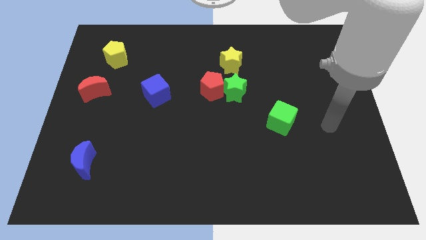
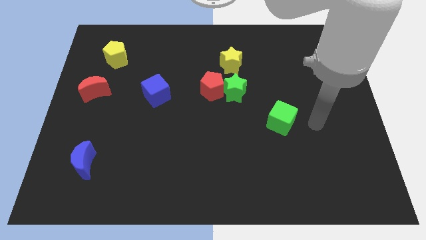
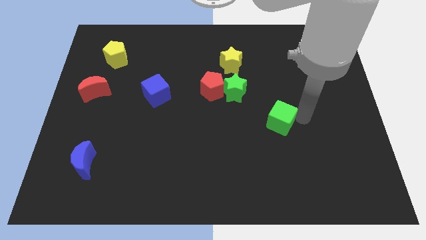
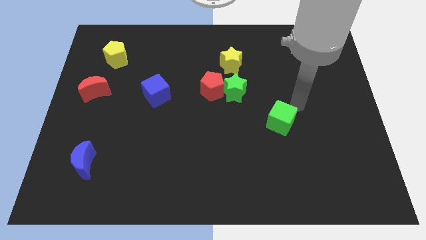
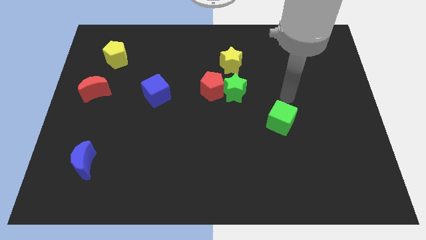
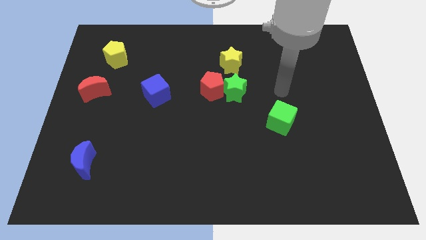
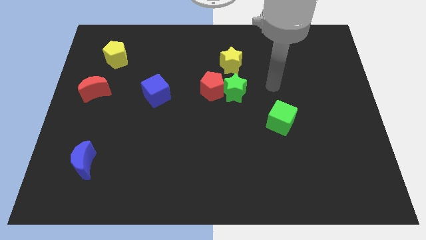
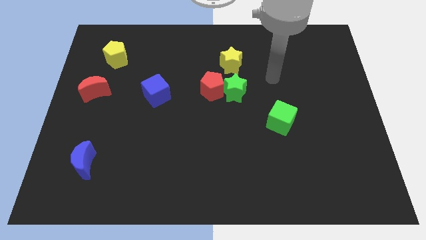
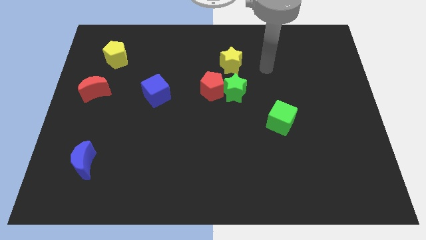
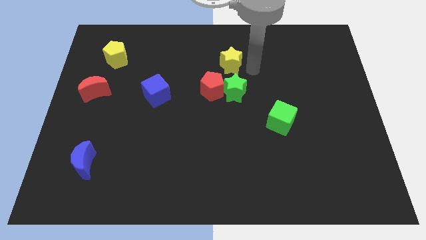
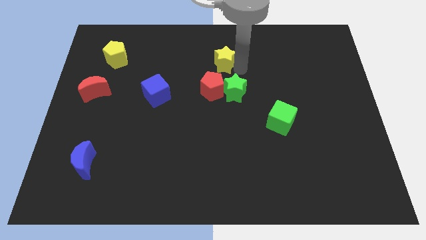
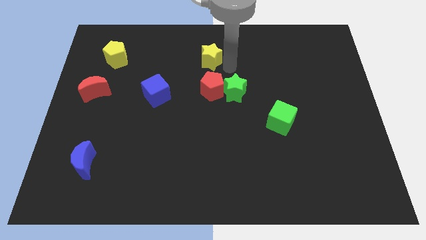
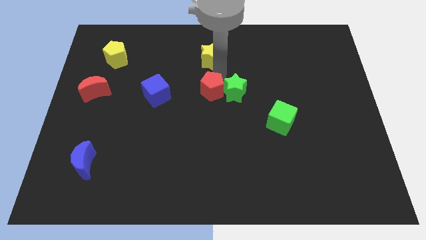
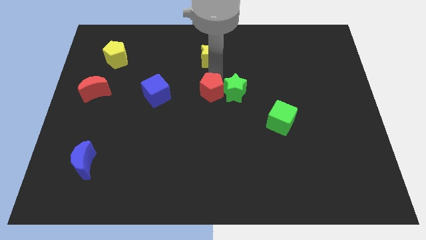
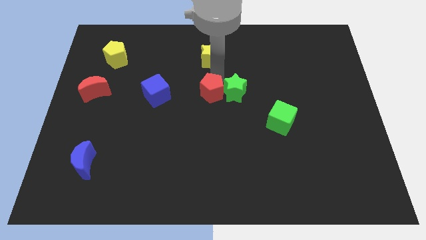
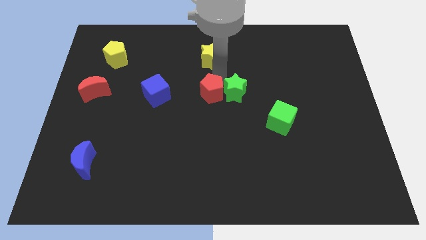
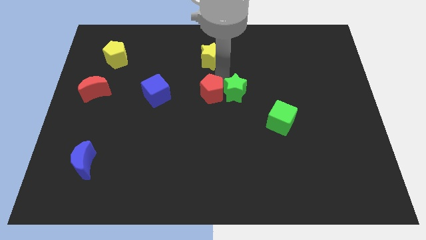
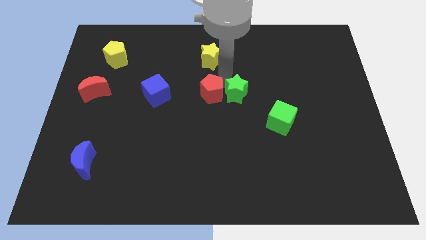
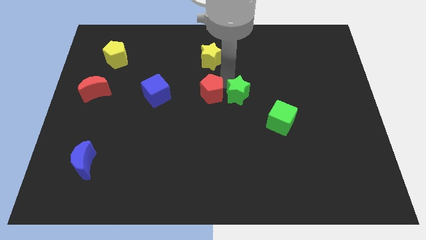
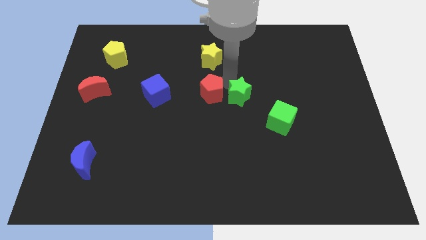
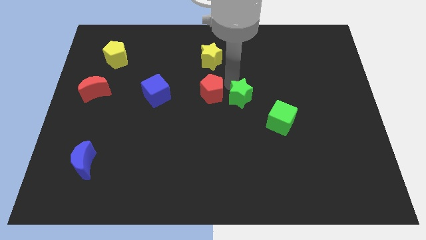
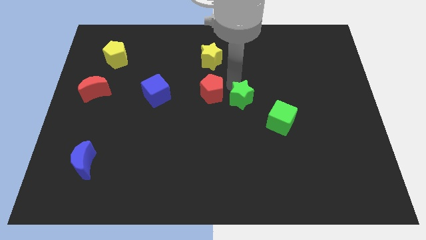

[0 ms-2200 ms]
separate the green star from the red pentagon and yellow star

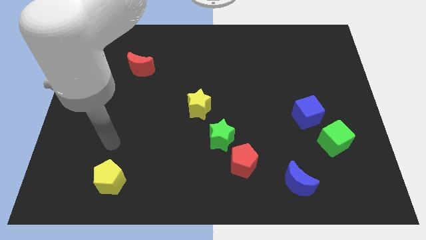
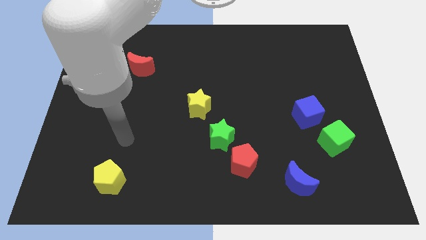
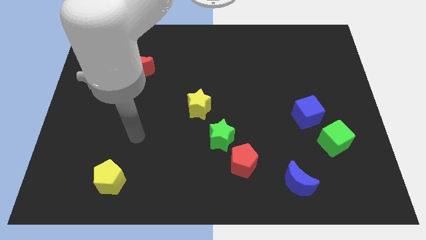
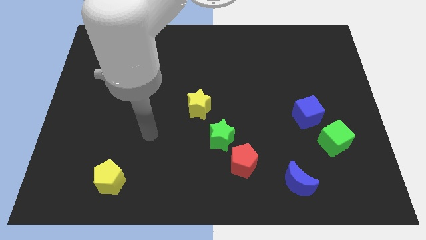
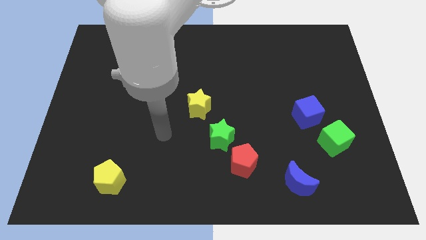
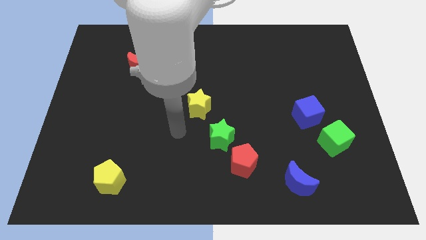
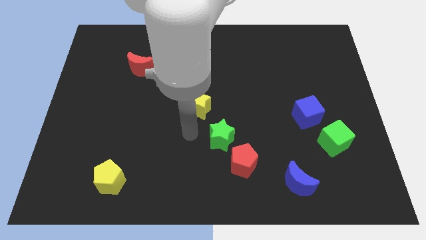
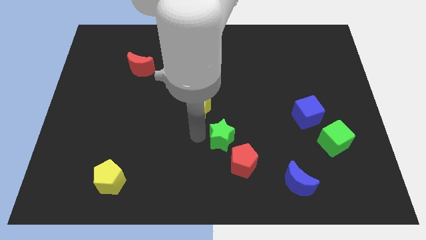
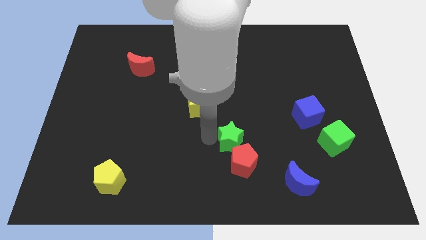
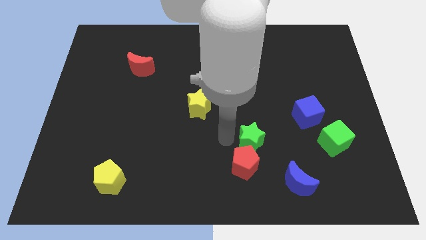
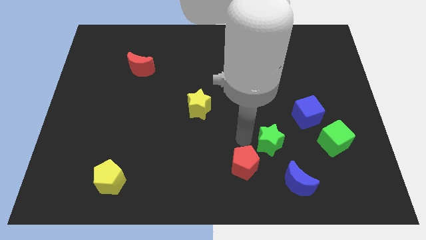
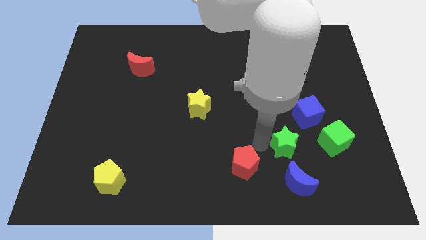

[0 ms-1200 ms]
separate the red pentagon from the green star

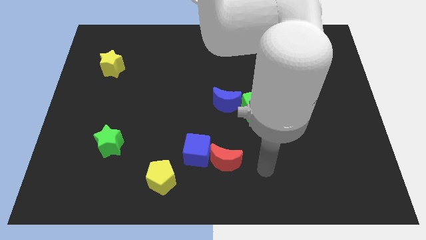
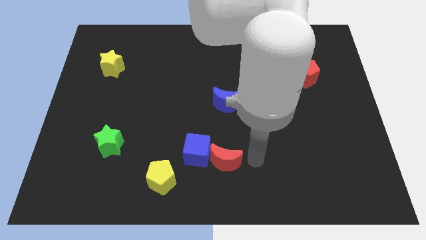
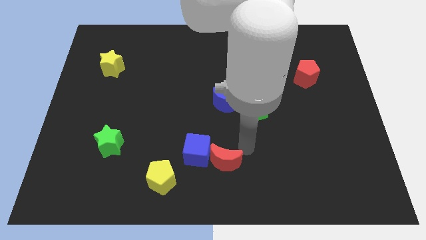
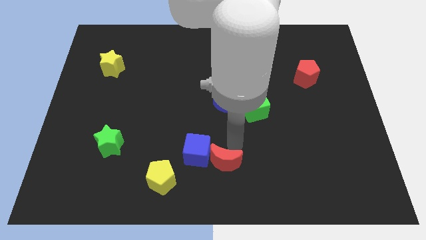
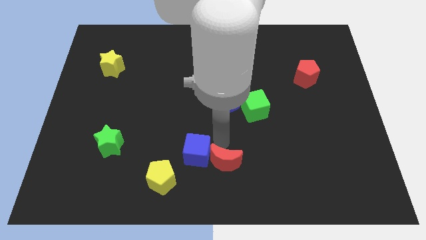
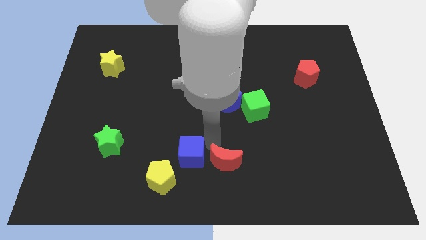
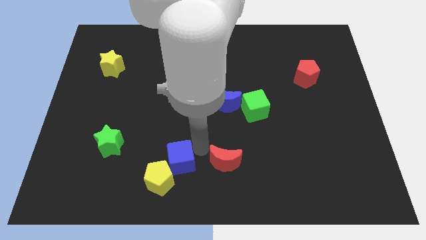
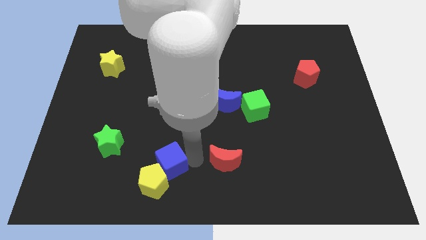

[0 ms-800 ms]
move the red moon away from the blue cube

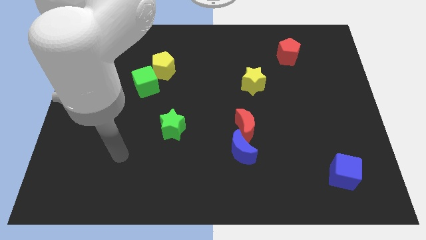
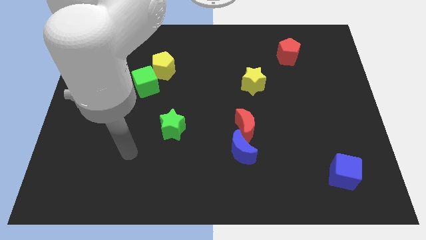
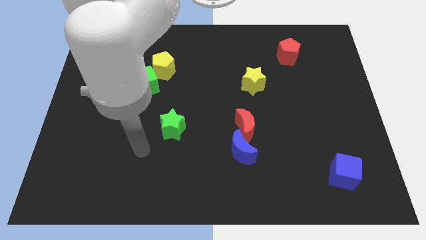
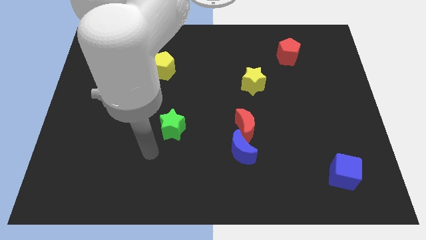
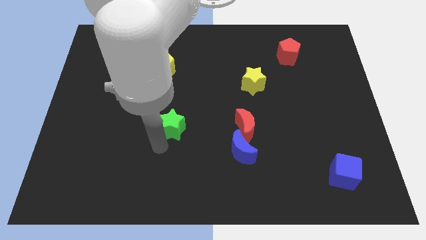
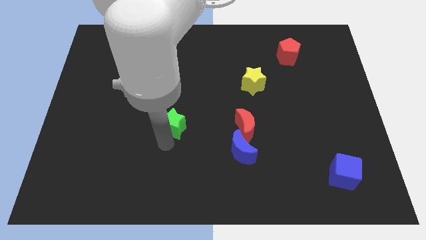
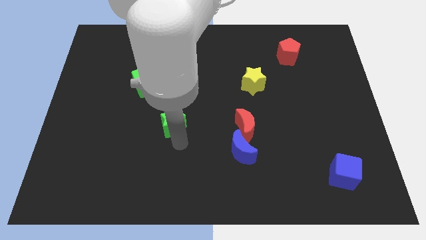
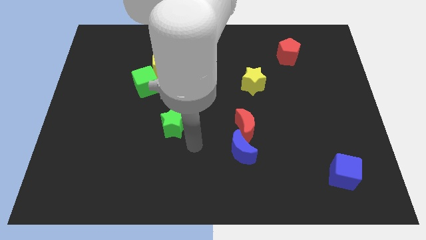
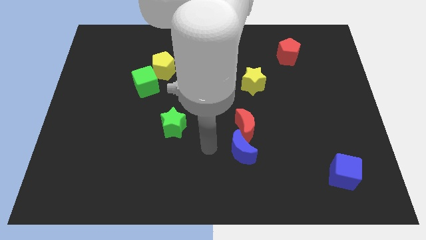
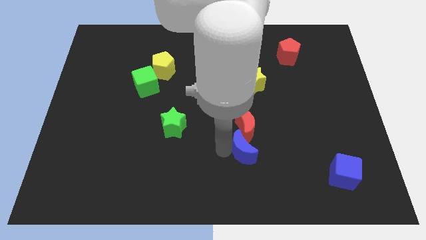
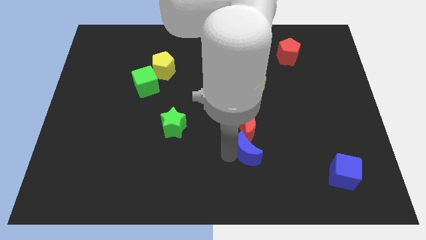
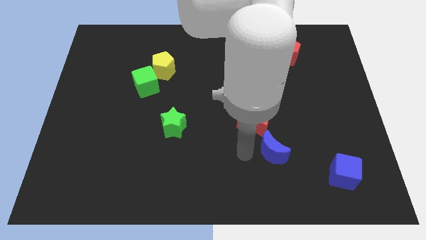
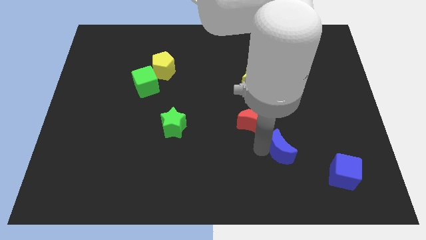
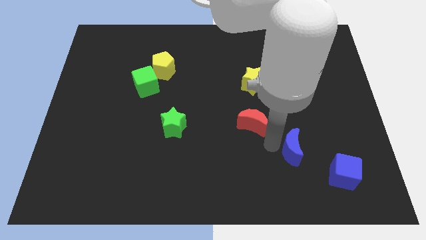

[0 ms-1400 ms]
move the red moon away from the blue moon

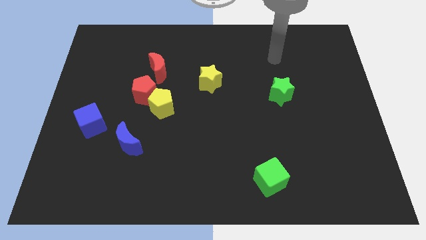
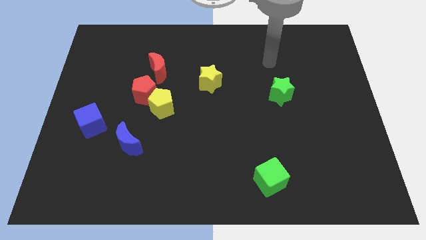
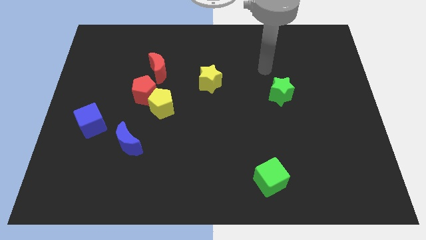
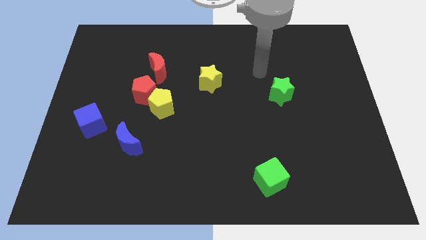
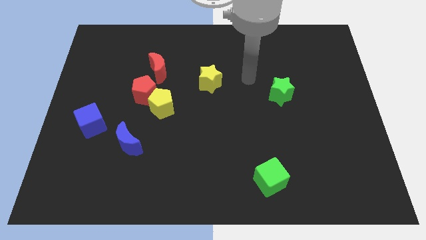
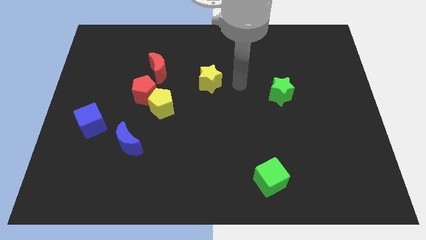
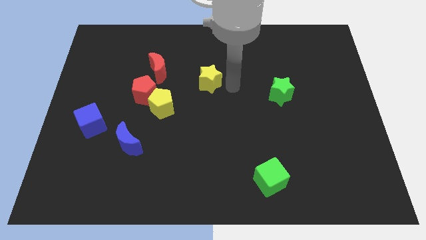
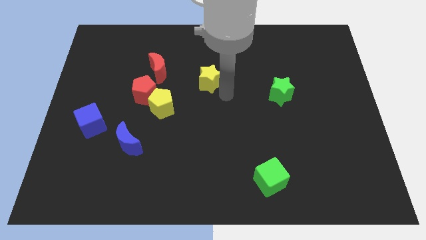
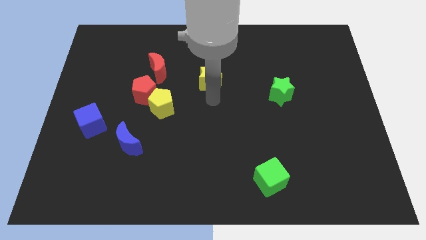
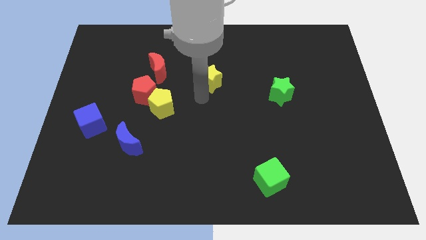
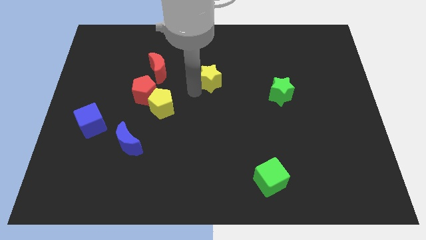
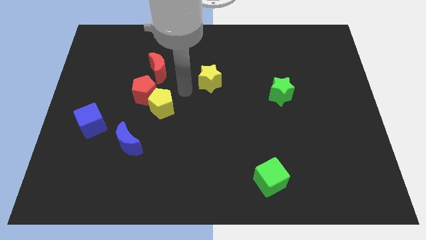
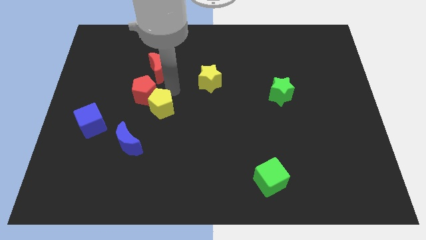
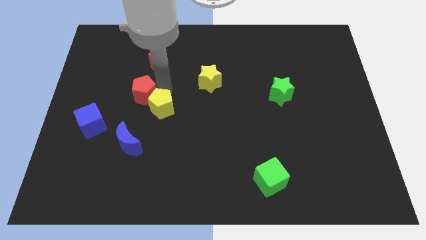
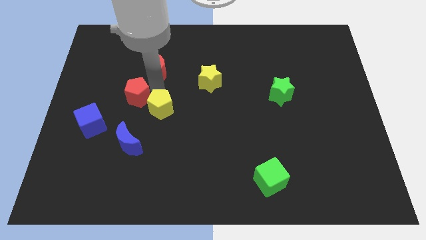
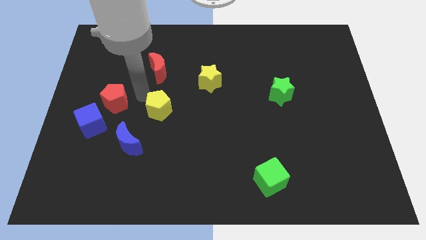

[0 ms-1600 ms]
pull the yellow pentagon apart from the red pentagon
